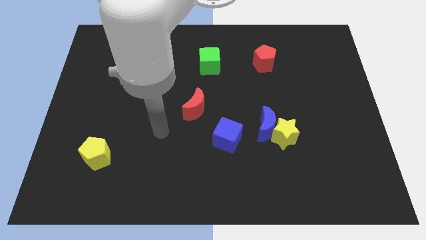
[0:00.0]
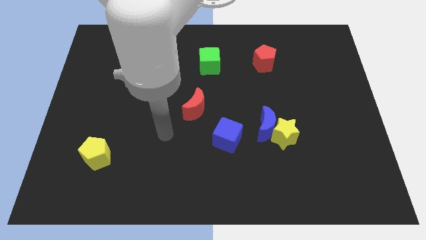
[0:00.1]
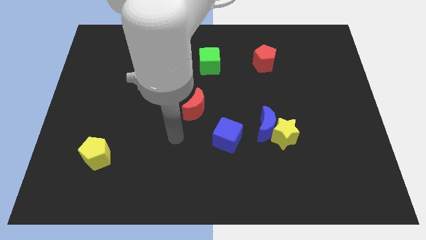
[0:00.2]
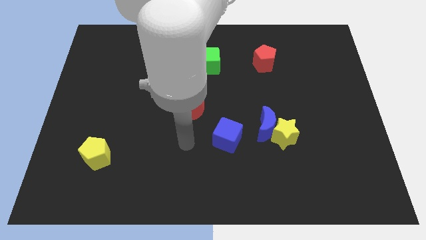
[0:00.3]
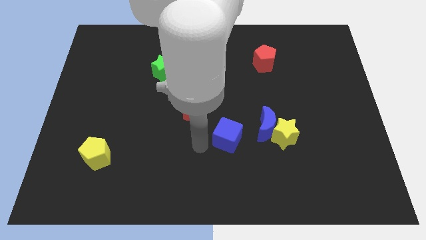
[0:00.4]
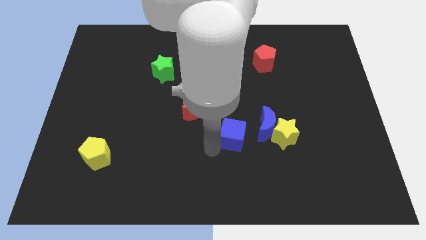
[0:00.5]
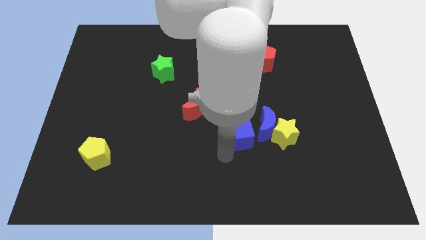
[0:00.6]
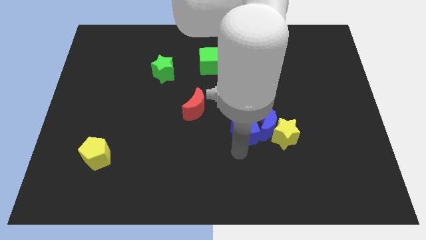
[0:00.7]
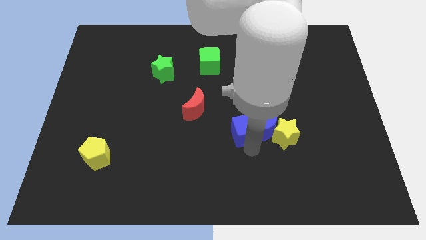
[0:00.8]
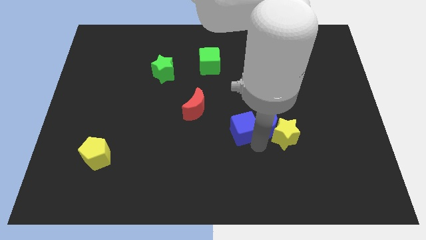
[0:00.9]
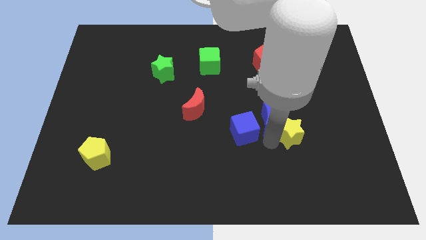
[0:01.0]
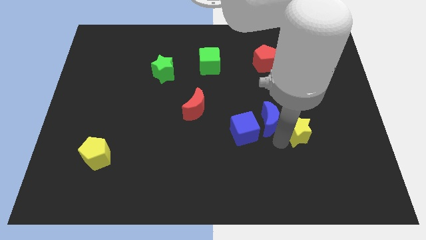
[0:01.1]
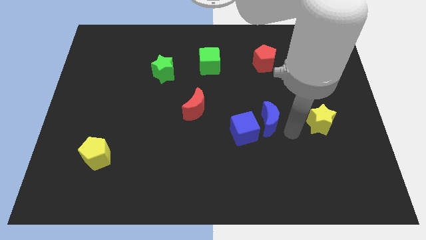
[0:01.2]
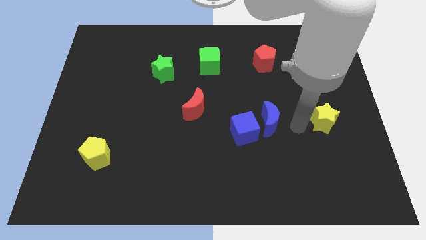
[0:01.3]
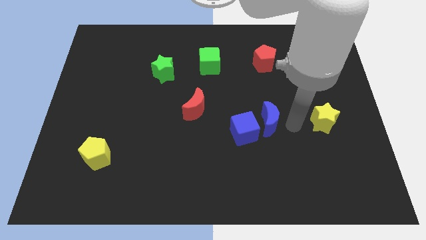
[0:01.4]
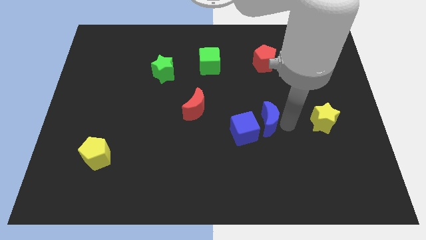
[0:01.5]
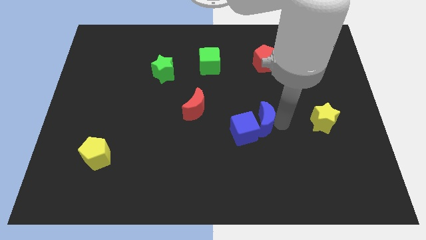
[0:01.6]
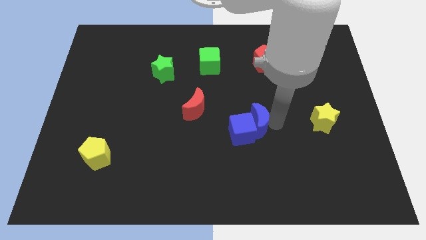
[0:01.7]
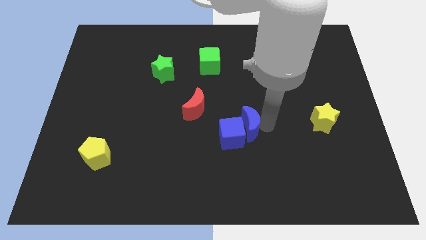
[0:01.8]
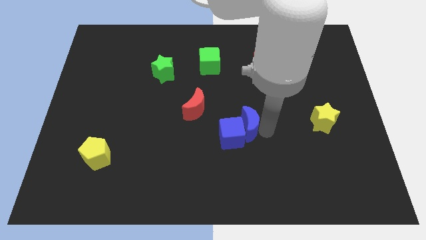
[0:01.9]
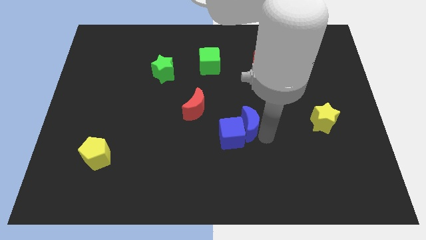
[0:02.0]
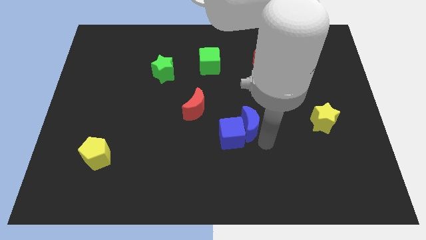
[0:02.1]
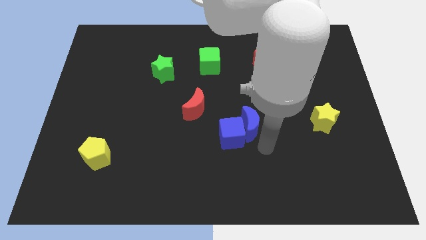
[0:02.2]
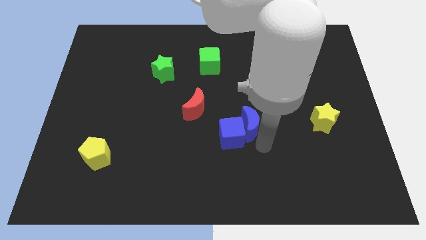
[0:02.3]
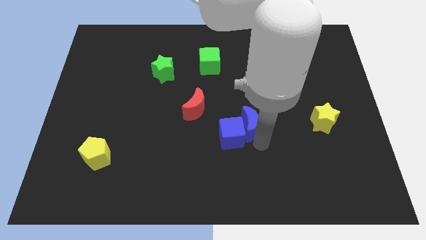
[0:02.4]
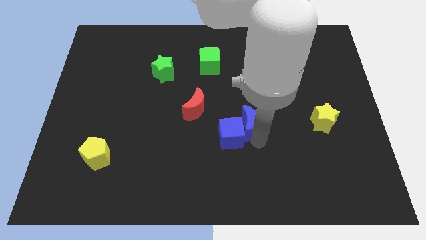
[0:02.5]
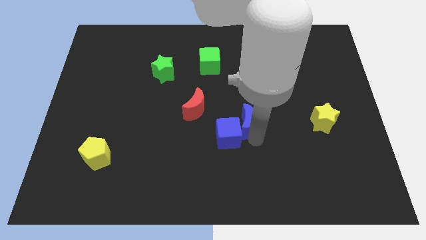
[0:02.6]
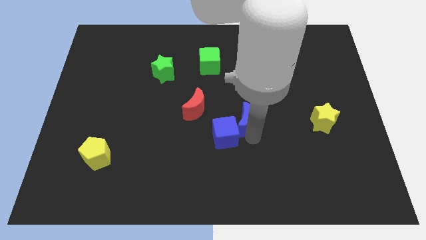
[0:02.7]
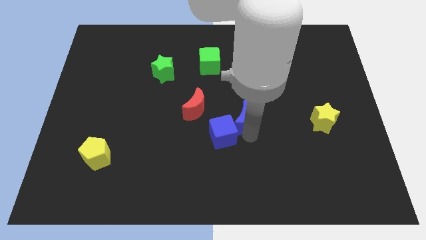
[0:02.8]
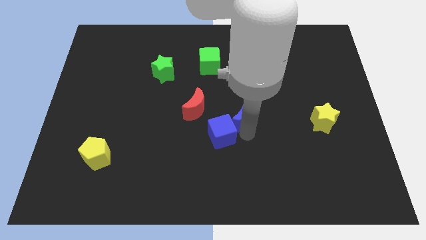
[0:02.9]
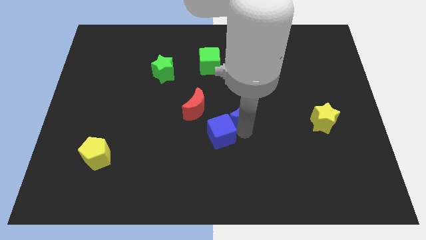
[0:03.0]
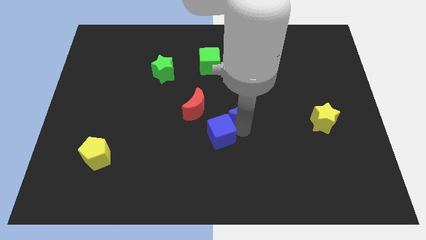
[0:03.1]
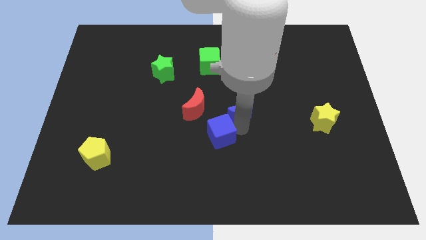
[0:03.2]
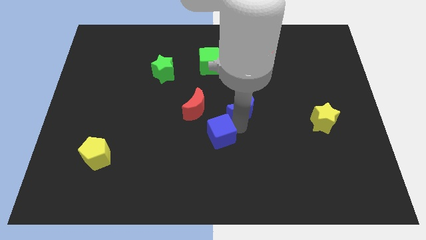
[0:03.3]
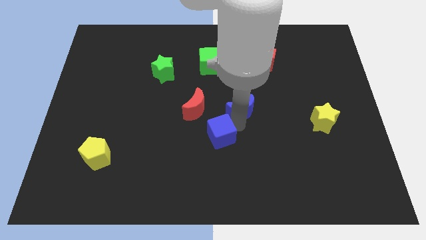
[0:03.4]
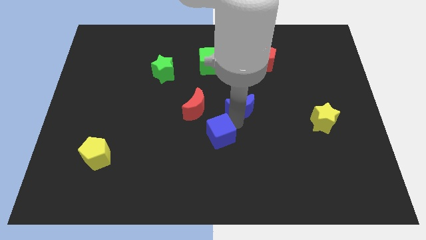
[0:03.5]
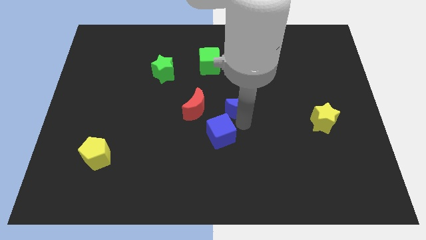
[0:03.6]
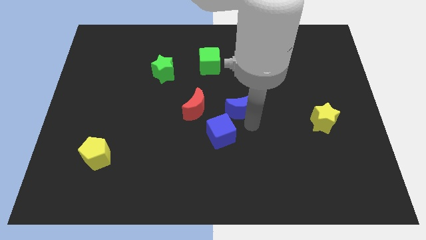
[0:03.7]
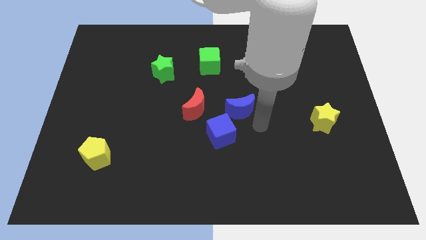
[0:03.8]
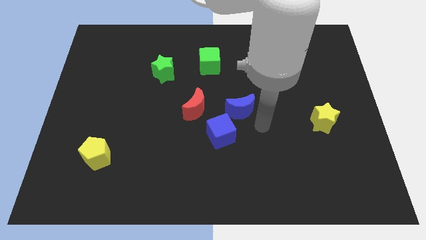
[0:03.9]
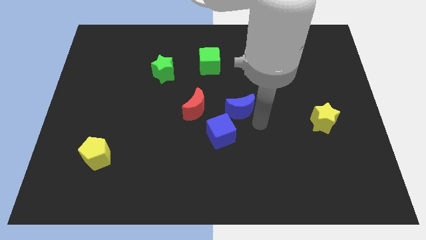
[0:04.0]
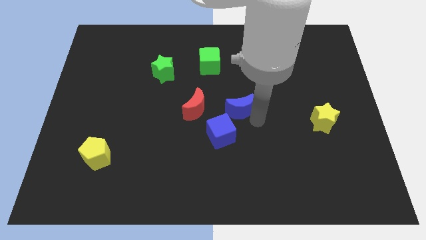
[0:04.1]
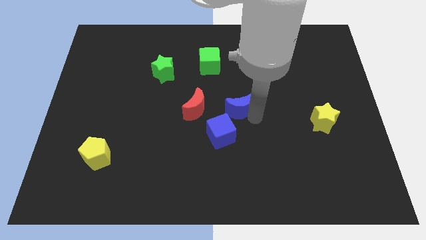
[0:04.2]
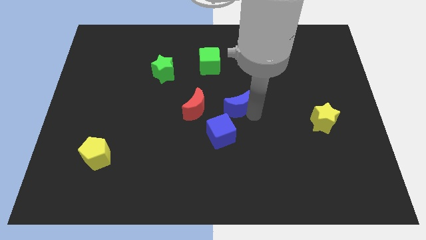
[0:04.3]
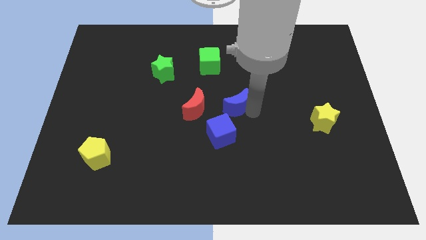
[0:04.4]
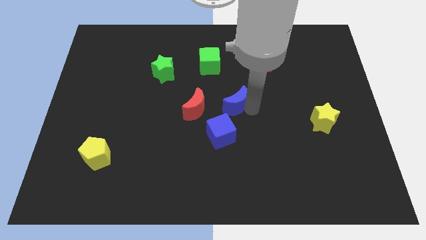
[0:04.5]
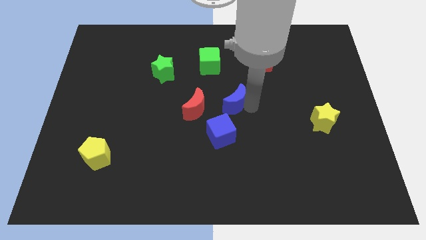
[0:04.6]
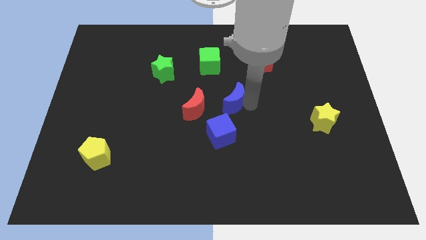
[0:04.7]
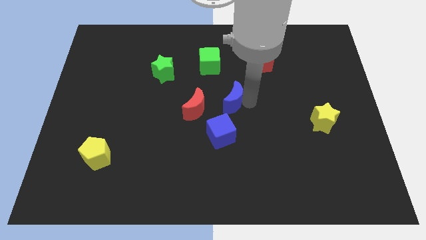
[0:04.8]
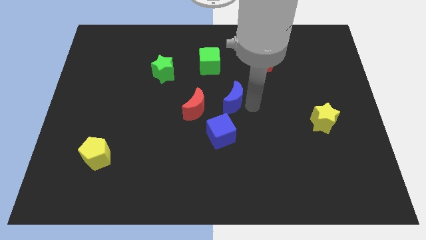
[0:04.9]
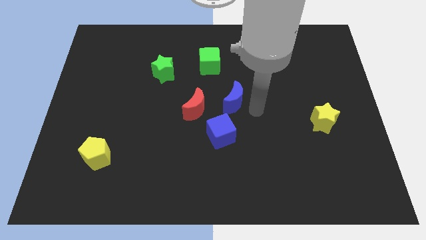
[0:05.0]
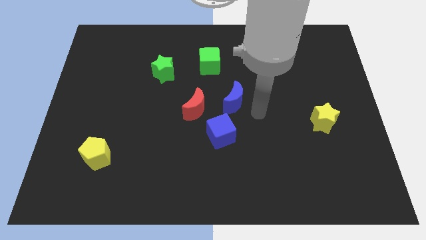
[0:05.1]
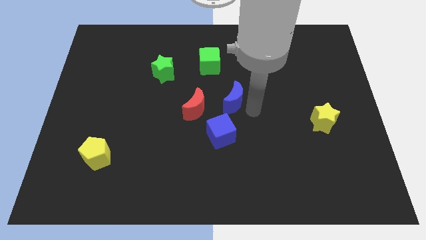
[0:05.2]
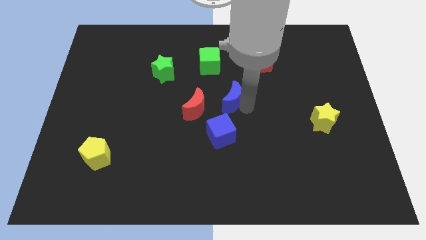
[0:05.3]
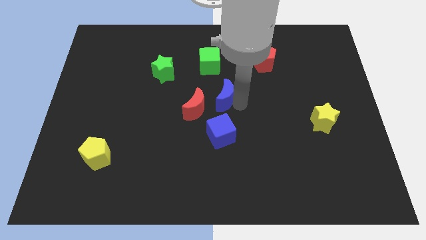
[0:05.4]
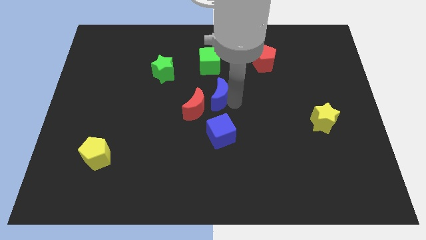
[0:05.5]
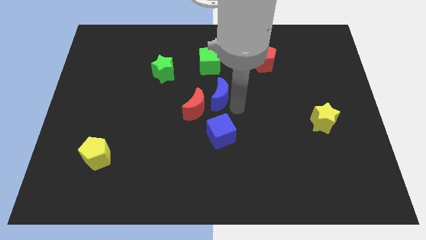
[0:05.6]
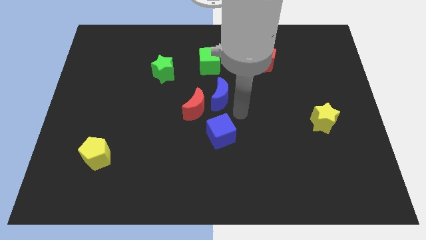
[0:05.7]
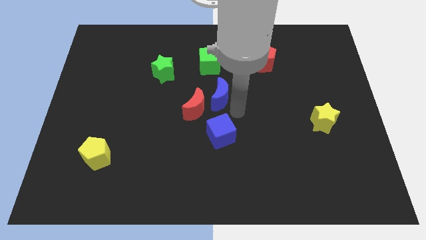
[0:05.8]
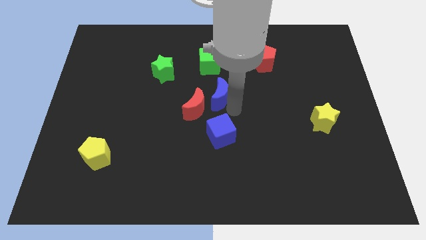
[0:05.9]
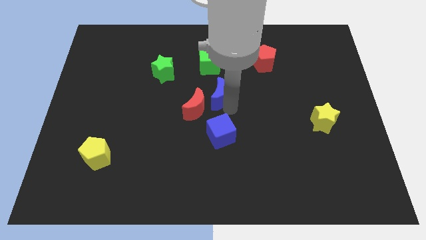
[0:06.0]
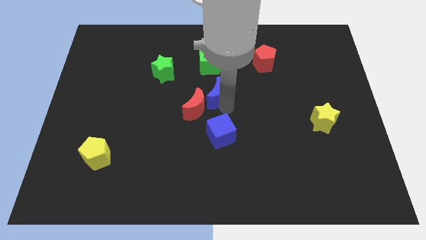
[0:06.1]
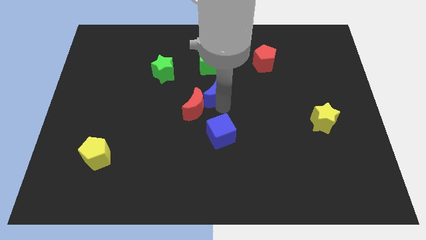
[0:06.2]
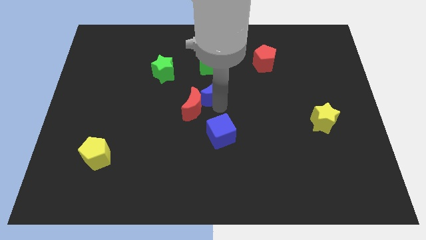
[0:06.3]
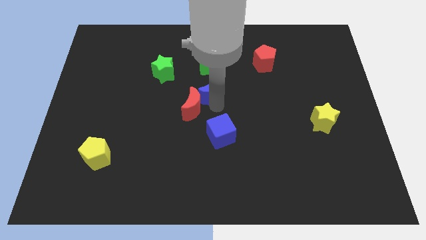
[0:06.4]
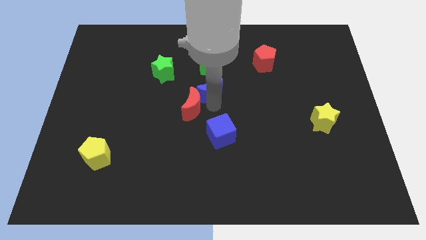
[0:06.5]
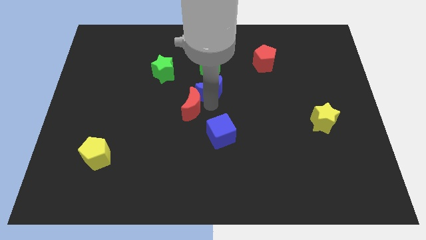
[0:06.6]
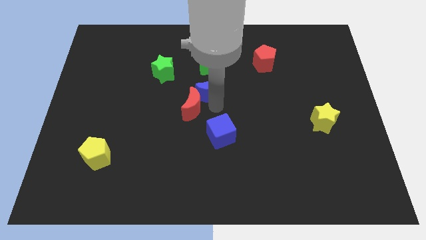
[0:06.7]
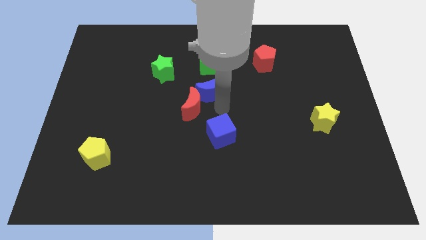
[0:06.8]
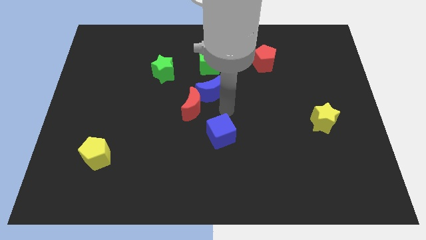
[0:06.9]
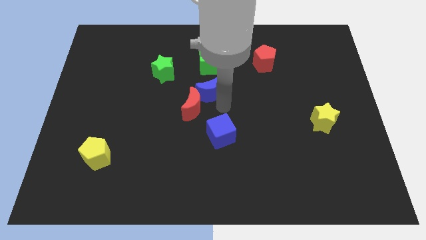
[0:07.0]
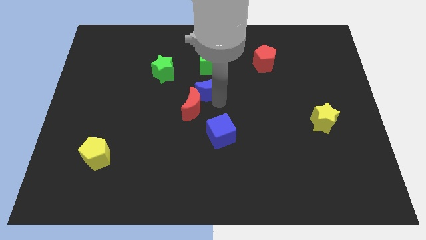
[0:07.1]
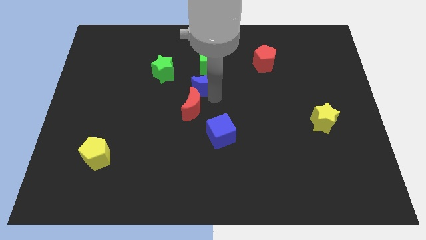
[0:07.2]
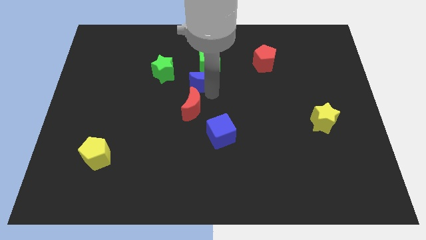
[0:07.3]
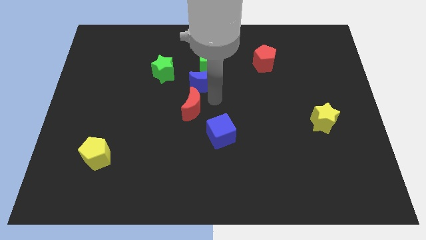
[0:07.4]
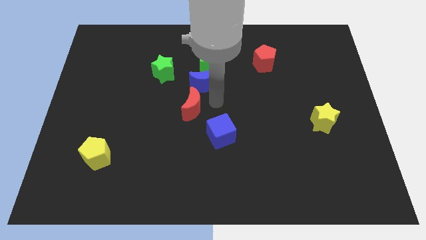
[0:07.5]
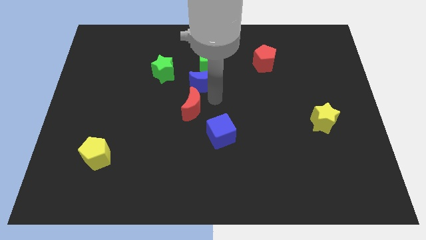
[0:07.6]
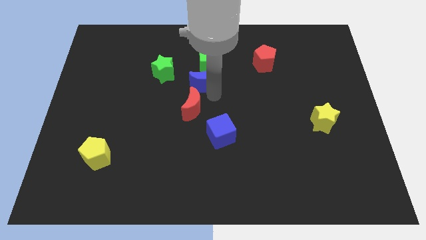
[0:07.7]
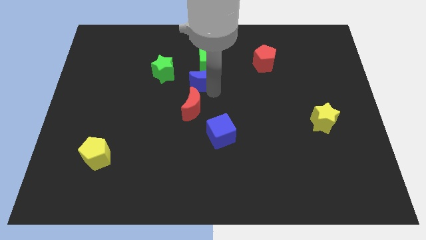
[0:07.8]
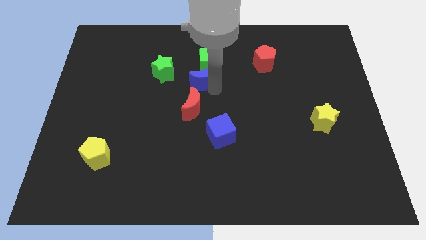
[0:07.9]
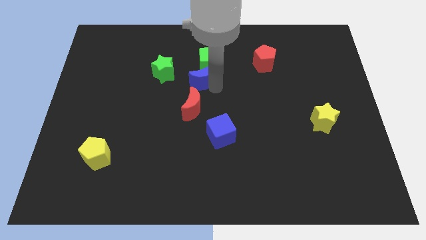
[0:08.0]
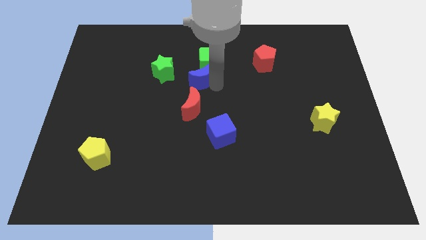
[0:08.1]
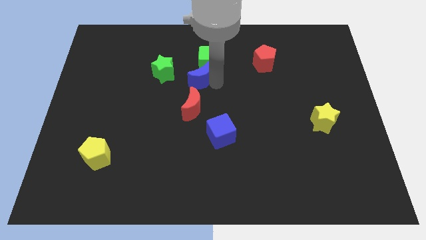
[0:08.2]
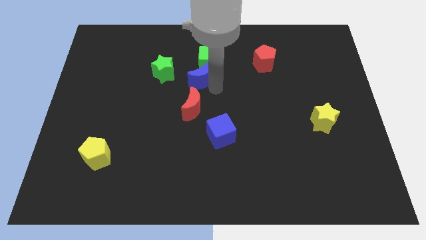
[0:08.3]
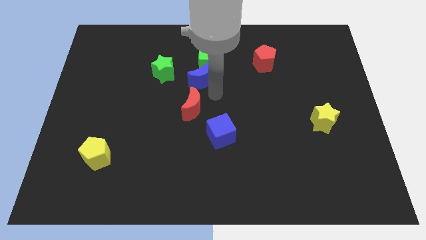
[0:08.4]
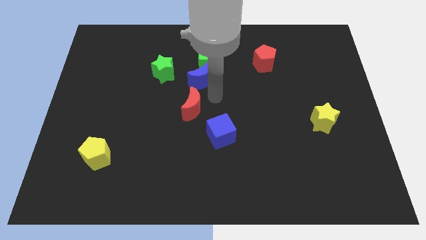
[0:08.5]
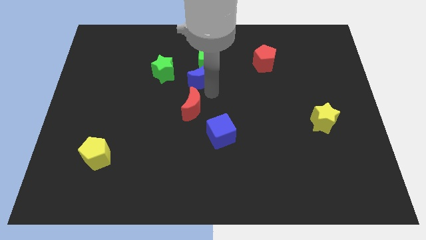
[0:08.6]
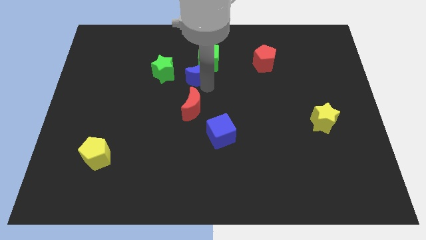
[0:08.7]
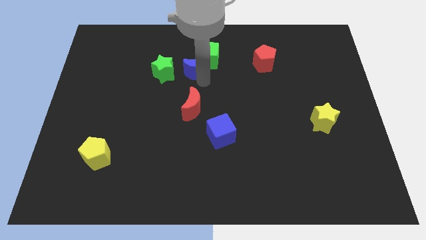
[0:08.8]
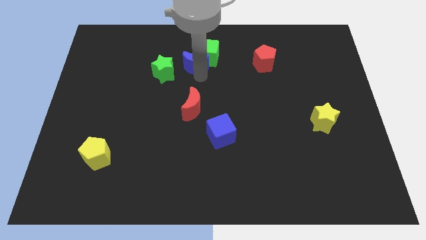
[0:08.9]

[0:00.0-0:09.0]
push the blue moon diagonally up and to the right of the green star
